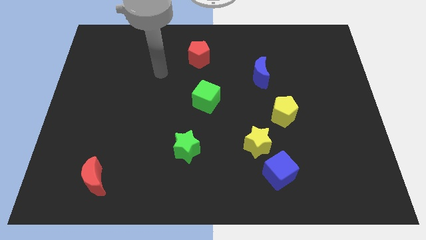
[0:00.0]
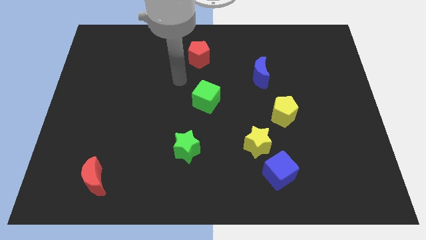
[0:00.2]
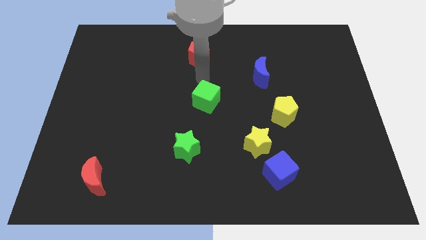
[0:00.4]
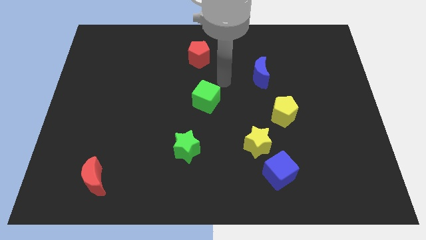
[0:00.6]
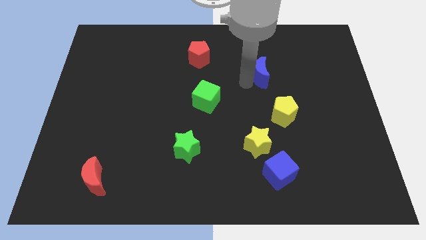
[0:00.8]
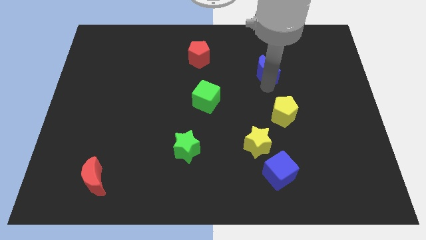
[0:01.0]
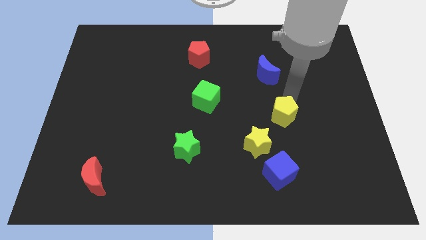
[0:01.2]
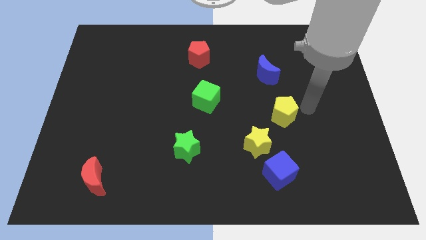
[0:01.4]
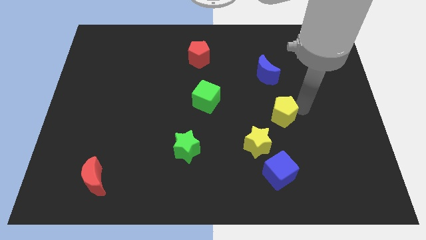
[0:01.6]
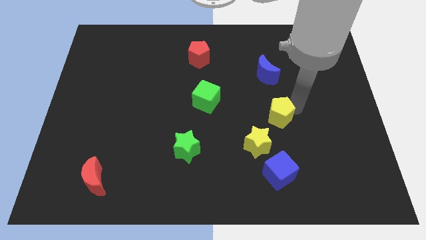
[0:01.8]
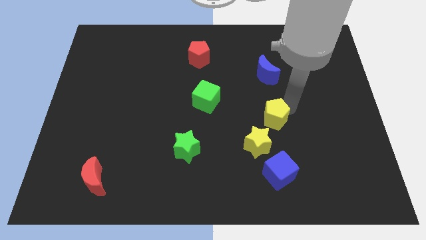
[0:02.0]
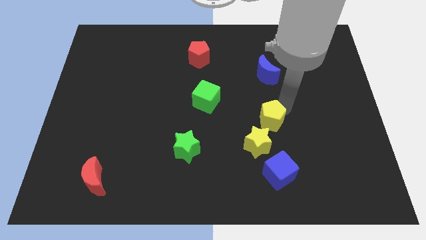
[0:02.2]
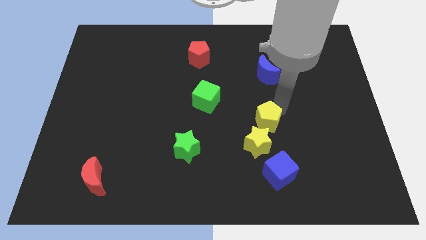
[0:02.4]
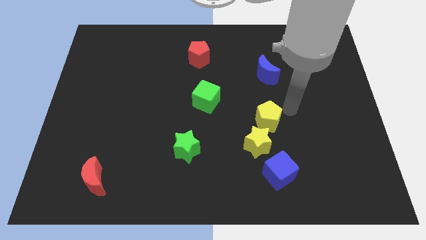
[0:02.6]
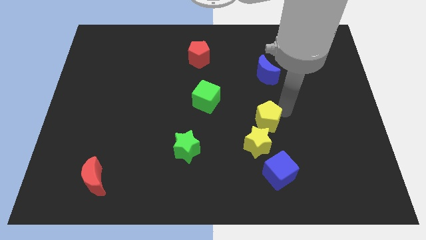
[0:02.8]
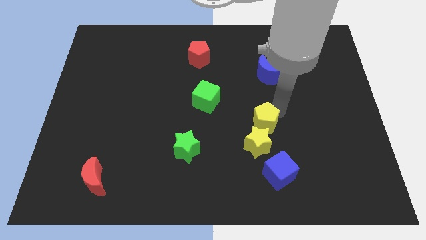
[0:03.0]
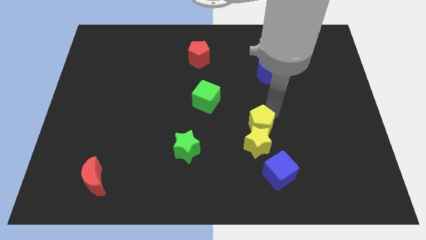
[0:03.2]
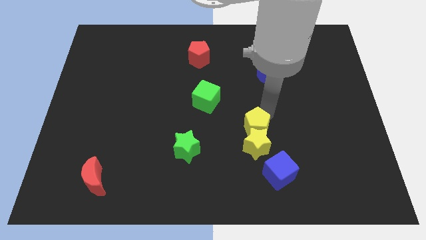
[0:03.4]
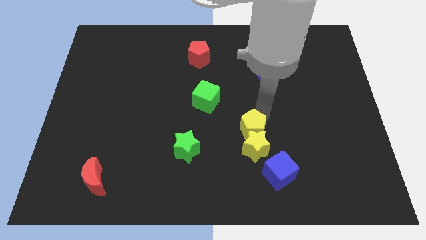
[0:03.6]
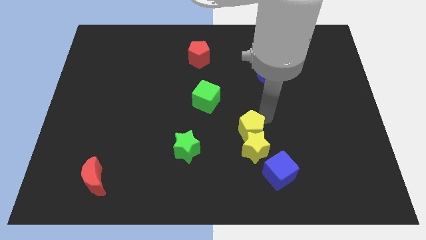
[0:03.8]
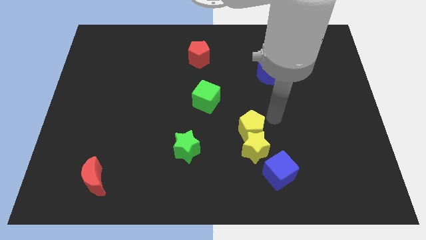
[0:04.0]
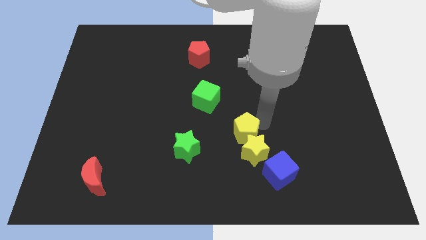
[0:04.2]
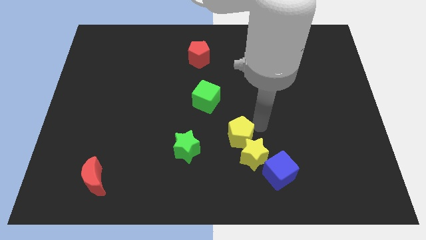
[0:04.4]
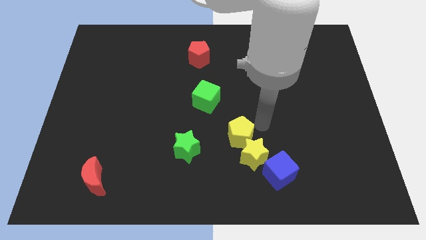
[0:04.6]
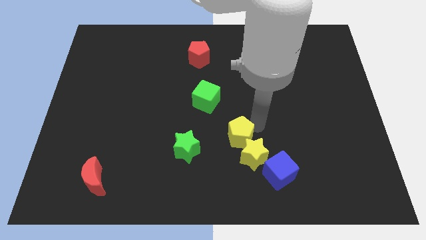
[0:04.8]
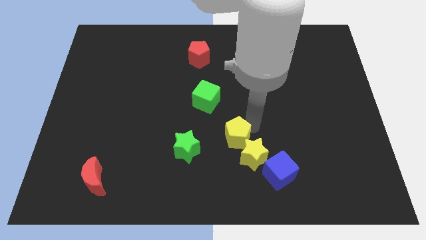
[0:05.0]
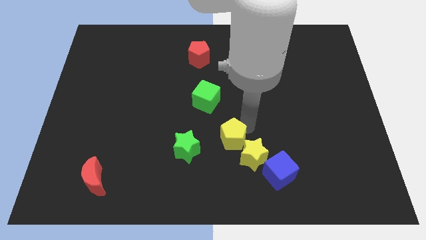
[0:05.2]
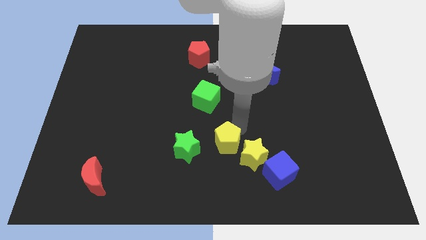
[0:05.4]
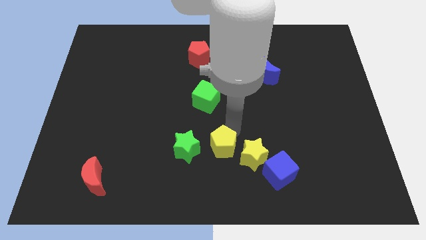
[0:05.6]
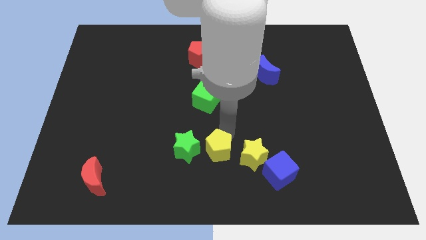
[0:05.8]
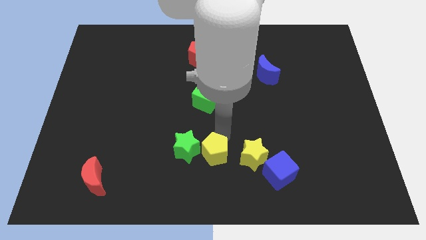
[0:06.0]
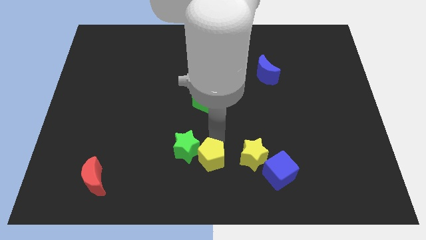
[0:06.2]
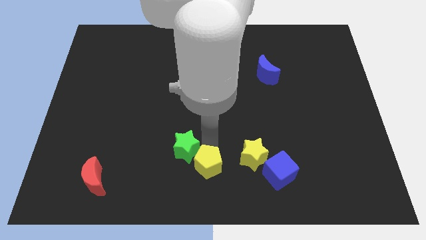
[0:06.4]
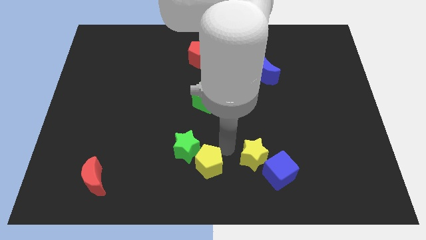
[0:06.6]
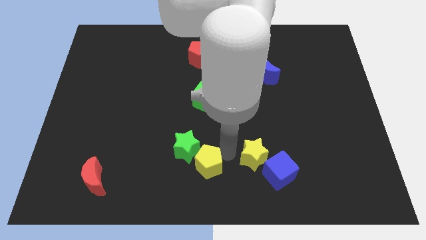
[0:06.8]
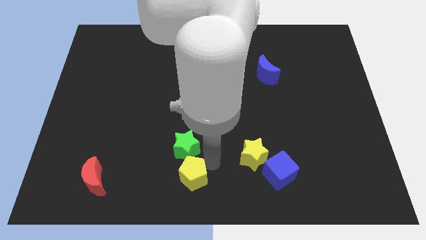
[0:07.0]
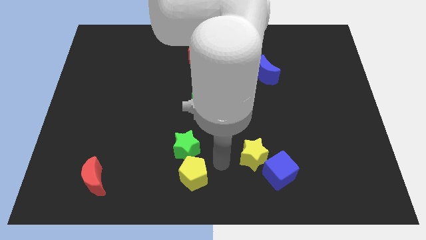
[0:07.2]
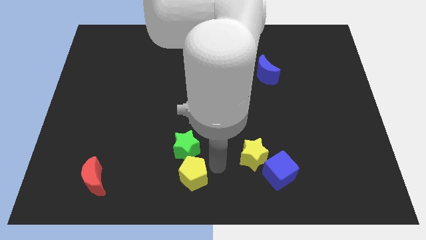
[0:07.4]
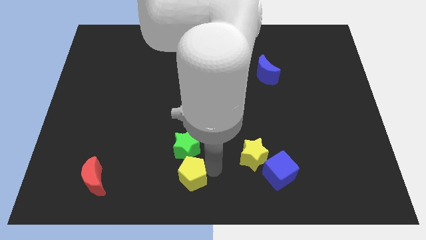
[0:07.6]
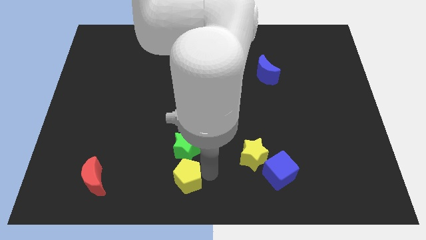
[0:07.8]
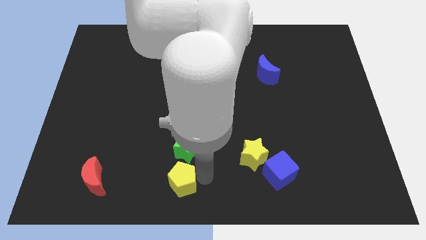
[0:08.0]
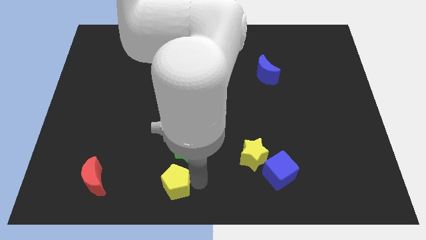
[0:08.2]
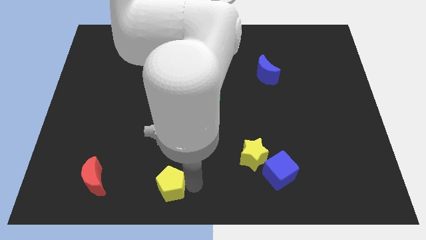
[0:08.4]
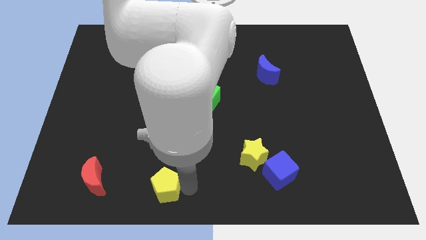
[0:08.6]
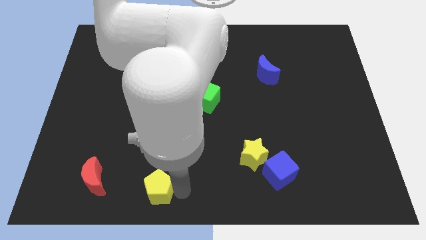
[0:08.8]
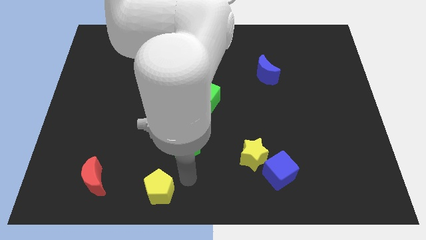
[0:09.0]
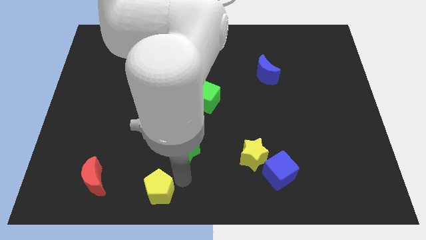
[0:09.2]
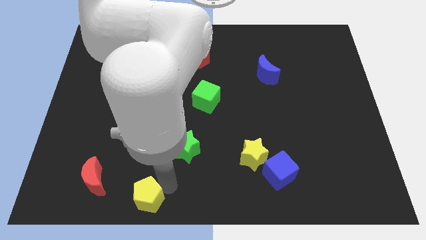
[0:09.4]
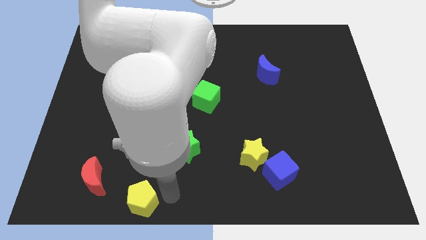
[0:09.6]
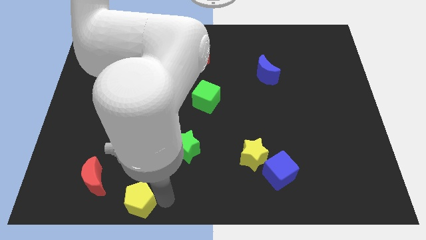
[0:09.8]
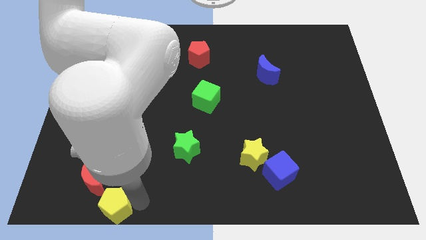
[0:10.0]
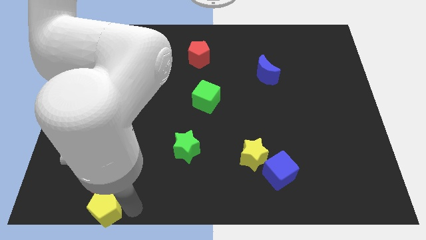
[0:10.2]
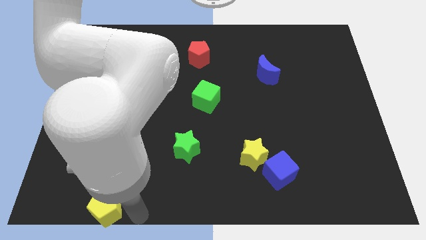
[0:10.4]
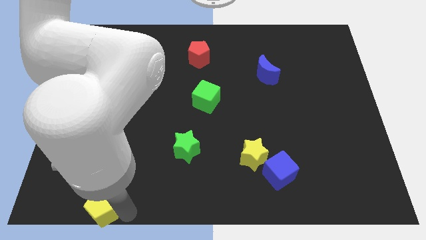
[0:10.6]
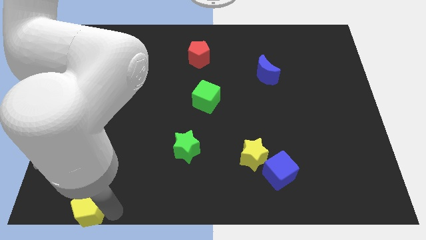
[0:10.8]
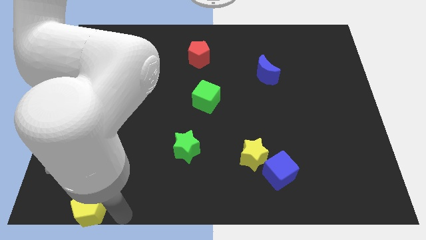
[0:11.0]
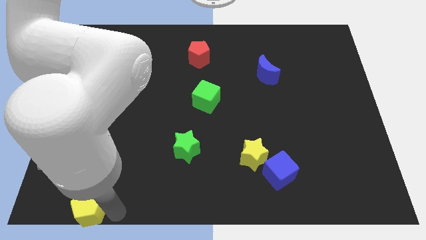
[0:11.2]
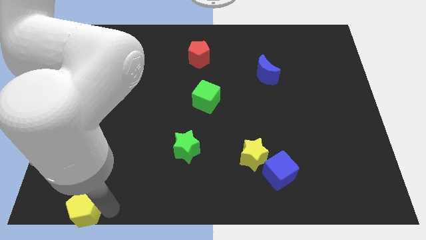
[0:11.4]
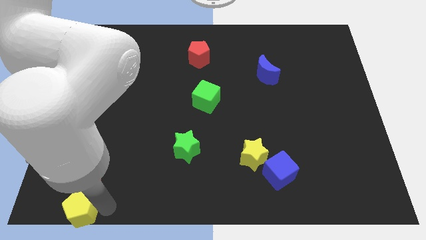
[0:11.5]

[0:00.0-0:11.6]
slide the yellow pentagon to the bottom left
